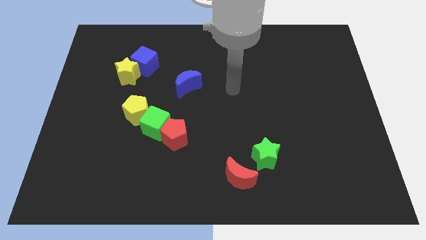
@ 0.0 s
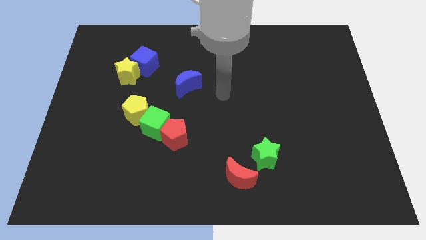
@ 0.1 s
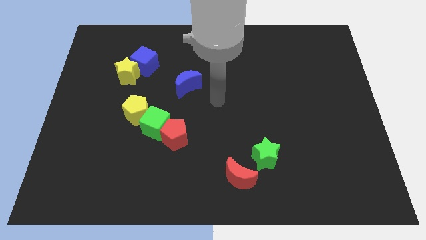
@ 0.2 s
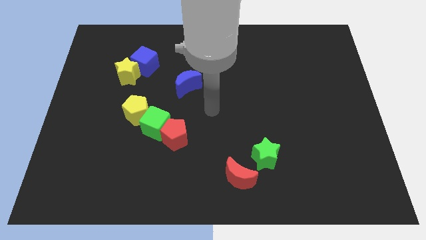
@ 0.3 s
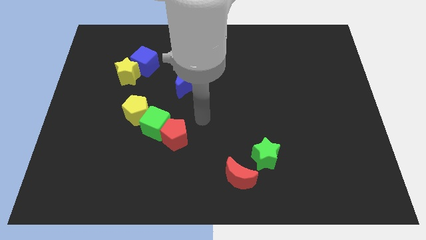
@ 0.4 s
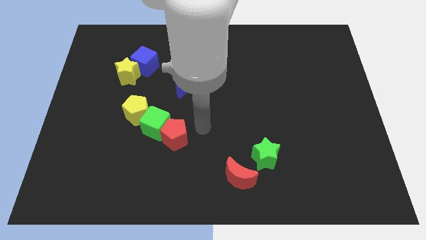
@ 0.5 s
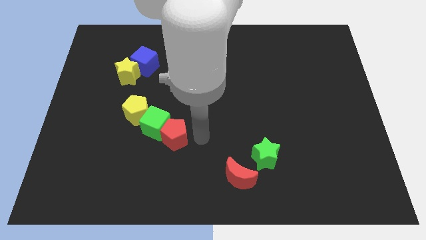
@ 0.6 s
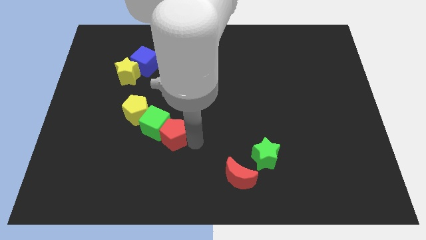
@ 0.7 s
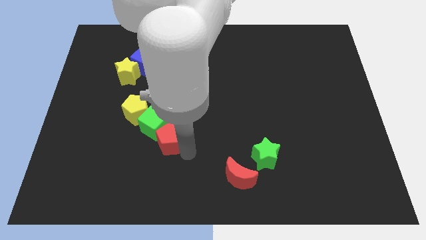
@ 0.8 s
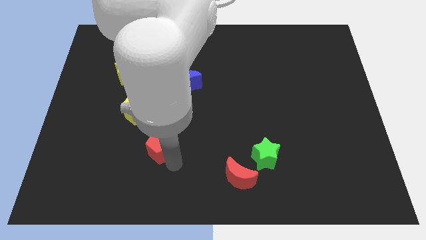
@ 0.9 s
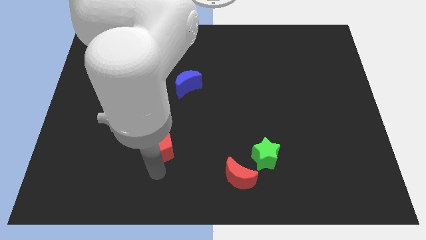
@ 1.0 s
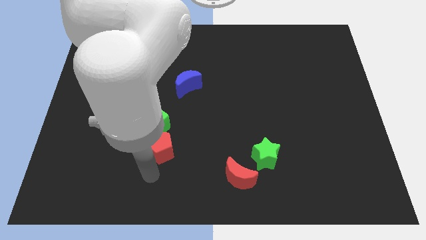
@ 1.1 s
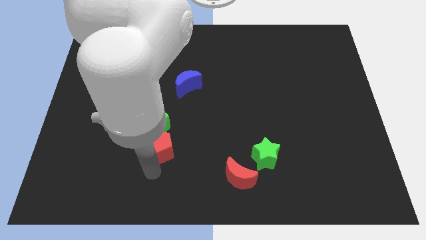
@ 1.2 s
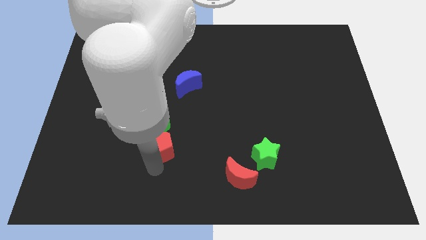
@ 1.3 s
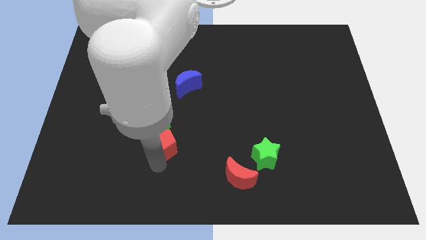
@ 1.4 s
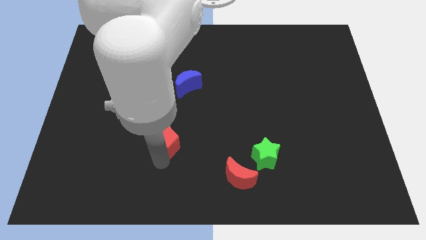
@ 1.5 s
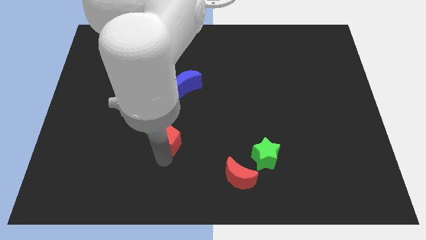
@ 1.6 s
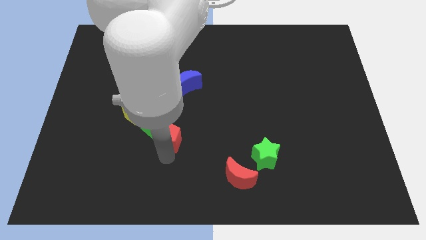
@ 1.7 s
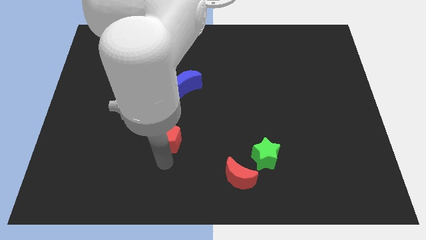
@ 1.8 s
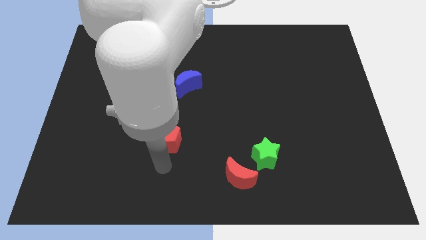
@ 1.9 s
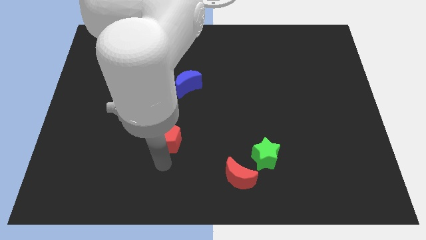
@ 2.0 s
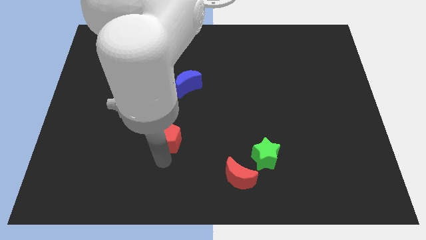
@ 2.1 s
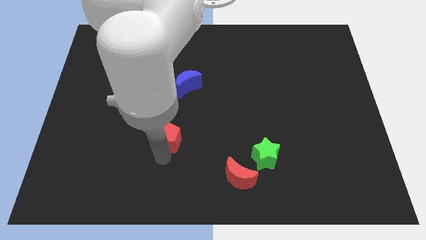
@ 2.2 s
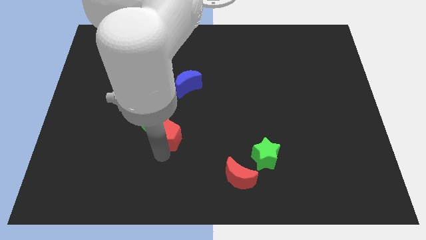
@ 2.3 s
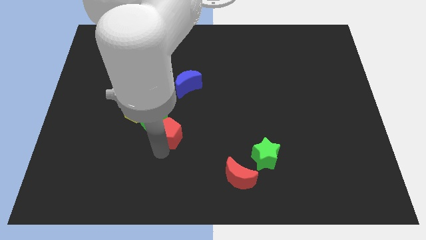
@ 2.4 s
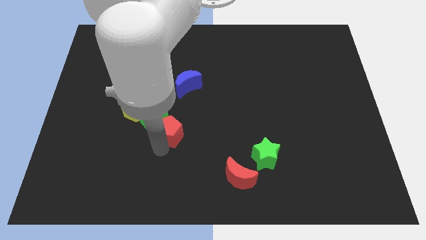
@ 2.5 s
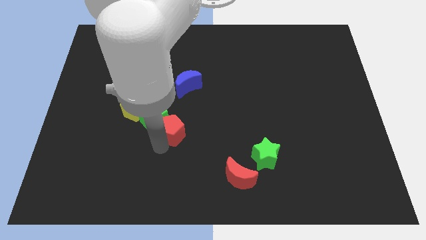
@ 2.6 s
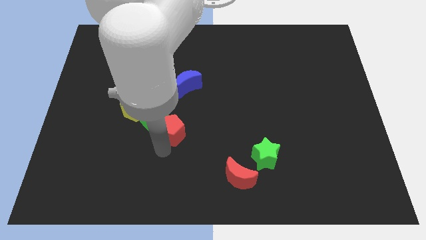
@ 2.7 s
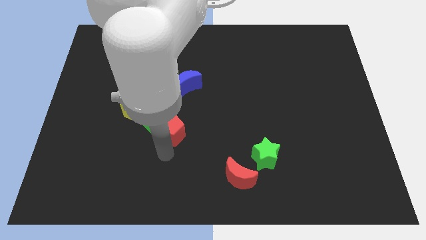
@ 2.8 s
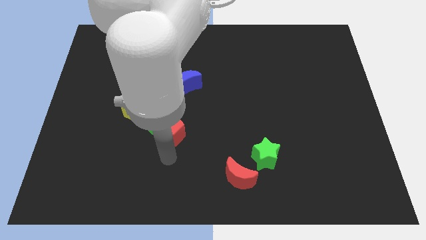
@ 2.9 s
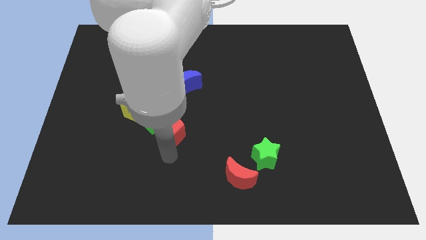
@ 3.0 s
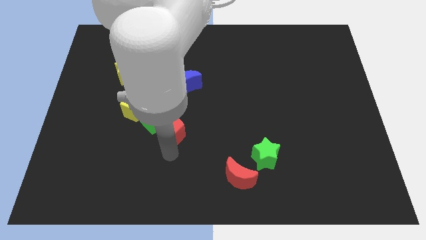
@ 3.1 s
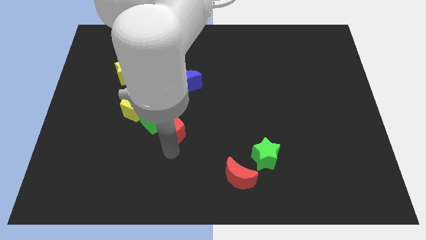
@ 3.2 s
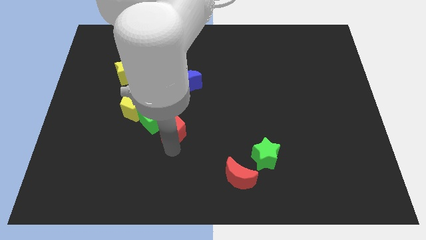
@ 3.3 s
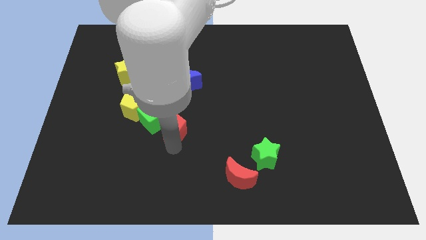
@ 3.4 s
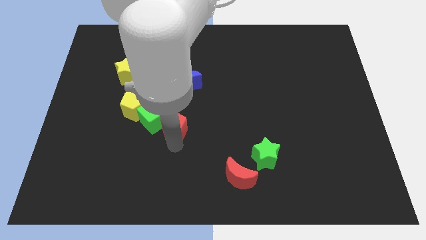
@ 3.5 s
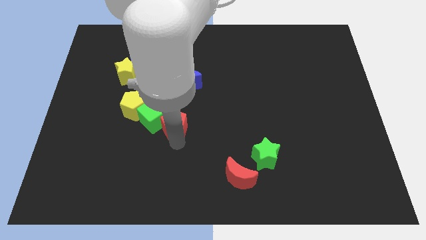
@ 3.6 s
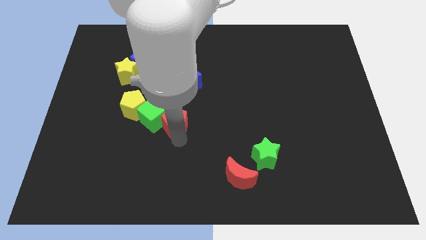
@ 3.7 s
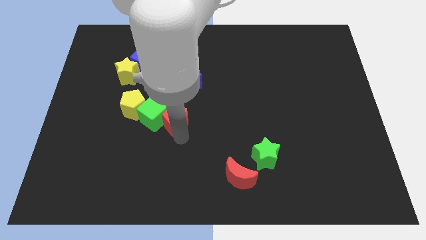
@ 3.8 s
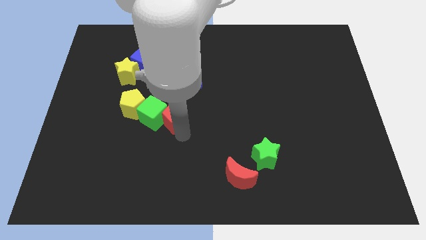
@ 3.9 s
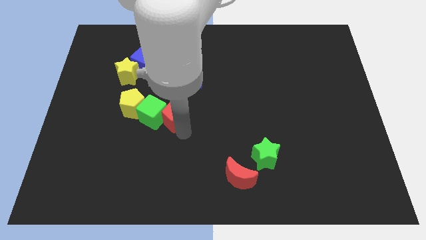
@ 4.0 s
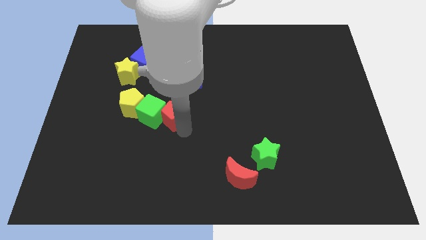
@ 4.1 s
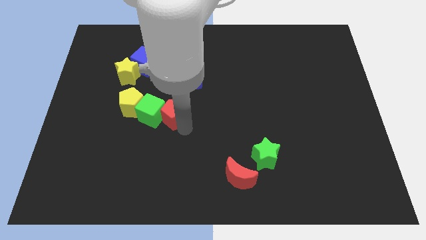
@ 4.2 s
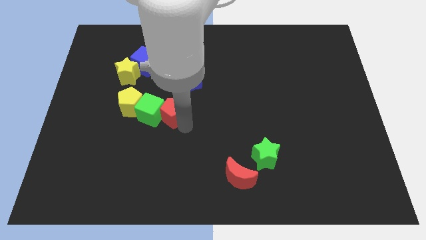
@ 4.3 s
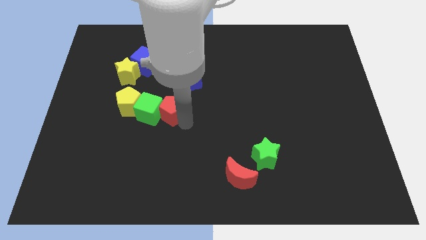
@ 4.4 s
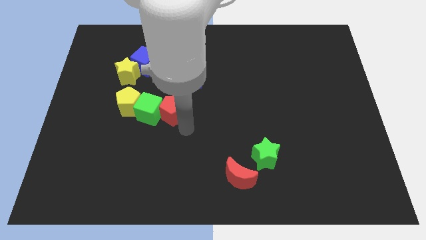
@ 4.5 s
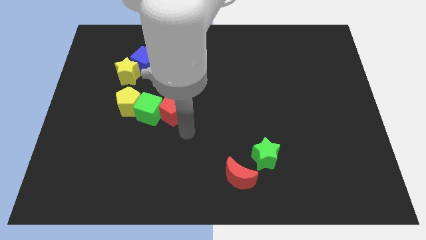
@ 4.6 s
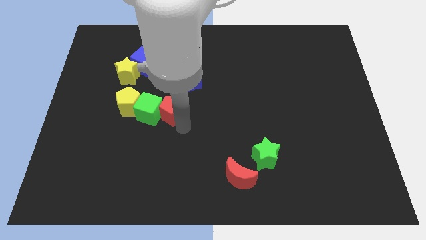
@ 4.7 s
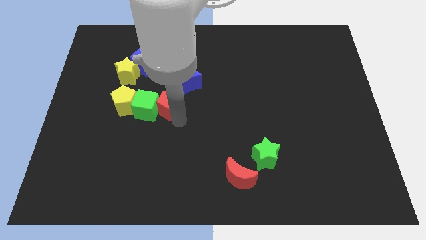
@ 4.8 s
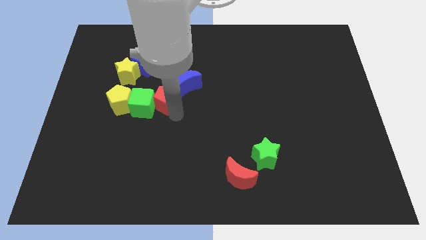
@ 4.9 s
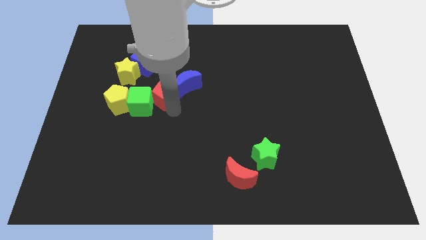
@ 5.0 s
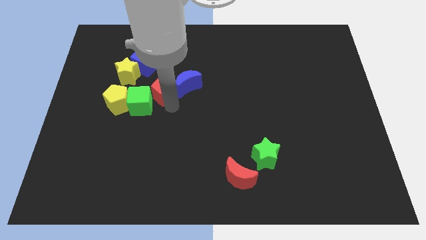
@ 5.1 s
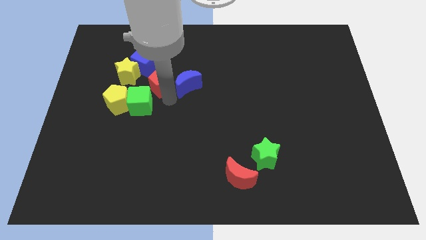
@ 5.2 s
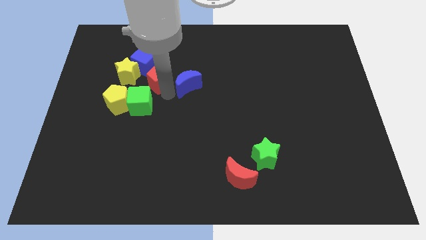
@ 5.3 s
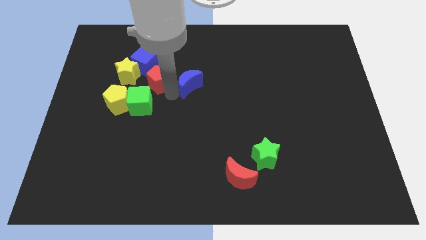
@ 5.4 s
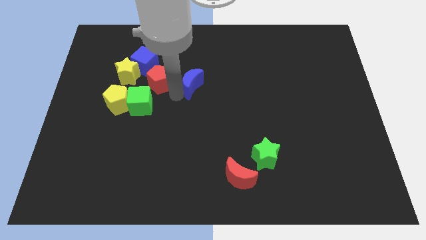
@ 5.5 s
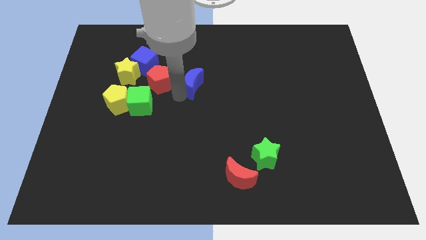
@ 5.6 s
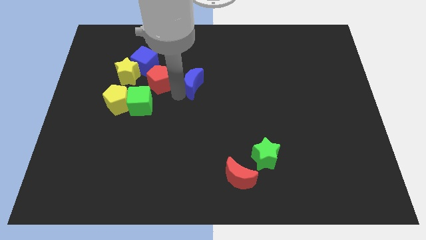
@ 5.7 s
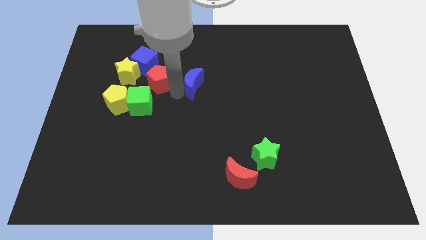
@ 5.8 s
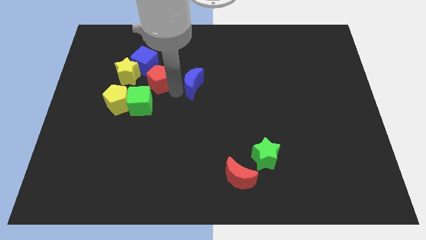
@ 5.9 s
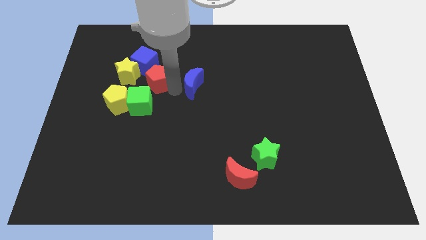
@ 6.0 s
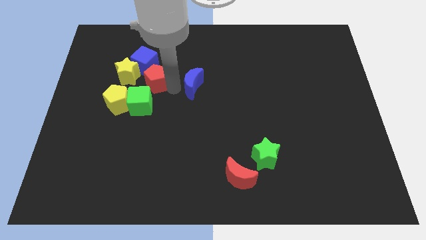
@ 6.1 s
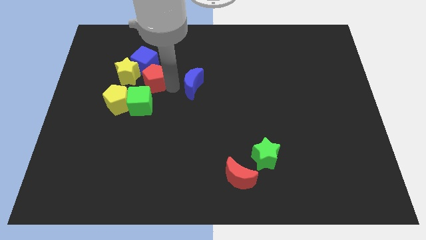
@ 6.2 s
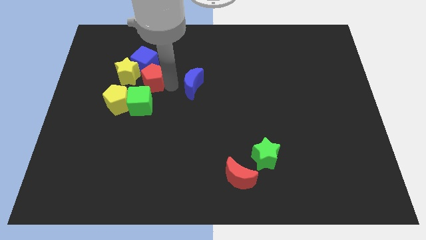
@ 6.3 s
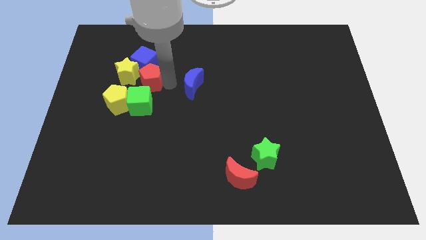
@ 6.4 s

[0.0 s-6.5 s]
push the red pentagon next to the blue cube
